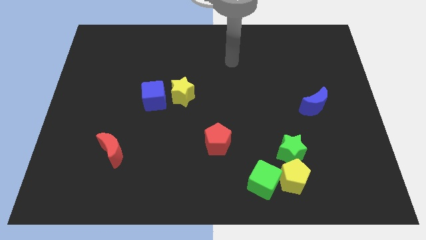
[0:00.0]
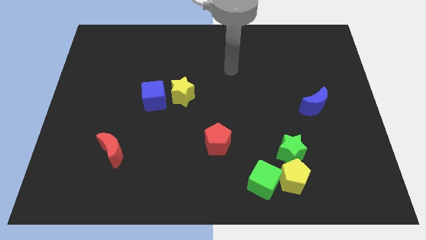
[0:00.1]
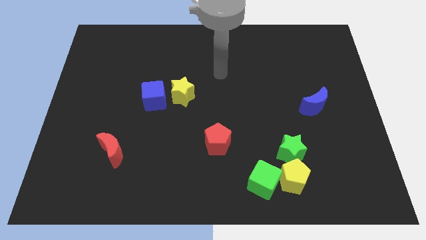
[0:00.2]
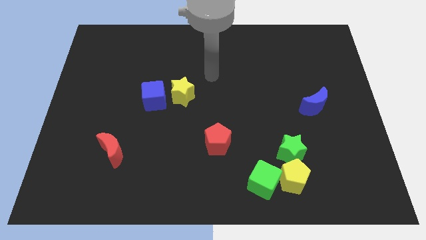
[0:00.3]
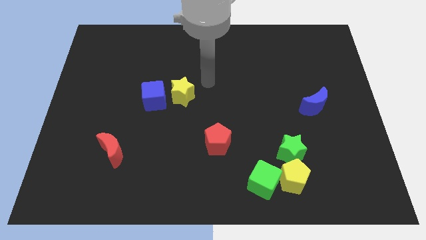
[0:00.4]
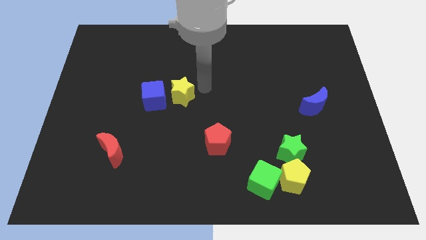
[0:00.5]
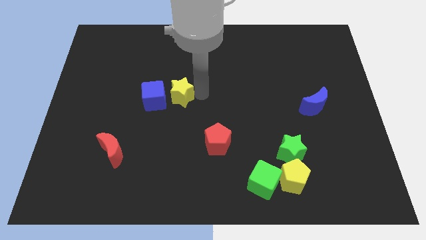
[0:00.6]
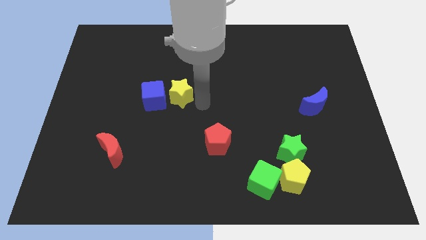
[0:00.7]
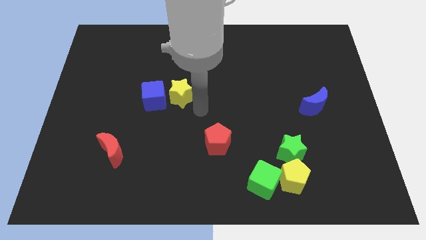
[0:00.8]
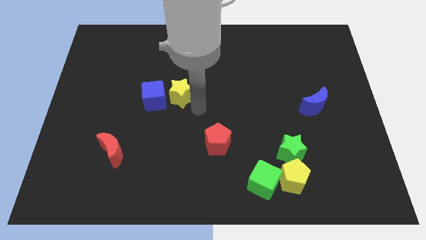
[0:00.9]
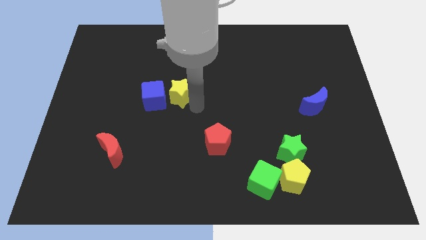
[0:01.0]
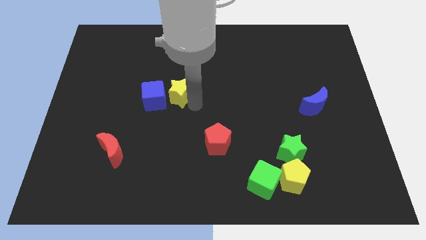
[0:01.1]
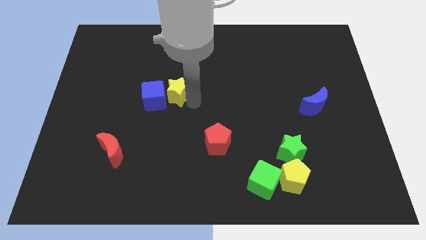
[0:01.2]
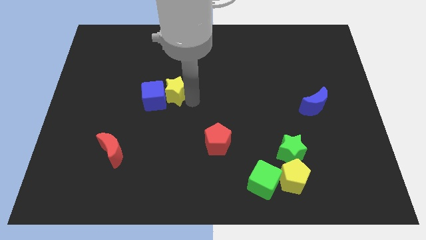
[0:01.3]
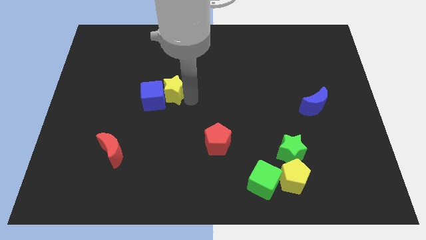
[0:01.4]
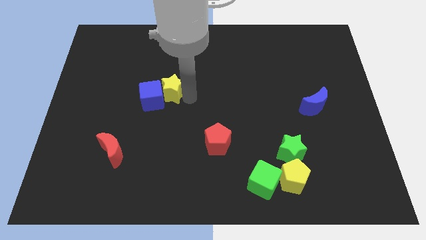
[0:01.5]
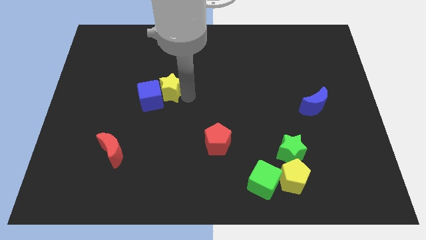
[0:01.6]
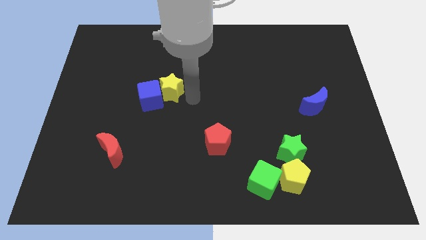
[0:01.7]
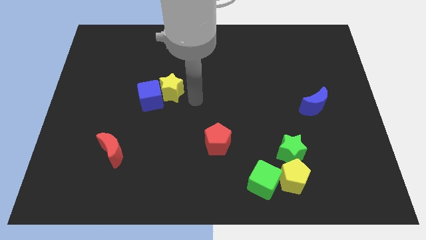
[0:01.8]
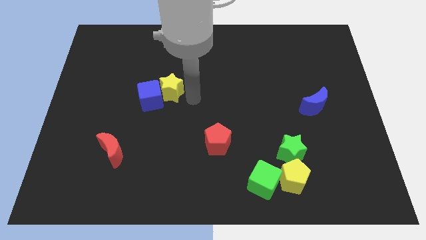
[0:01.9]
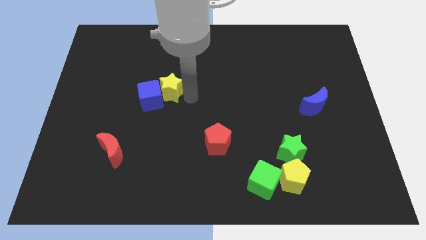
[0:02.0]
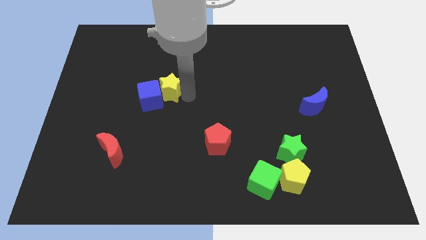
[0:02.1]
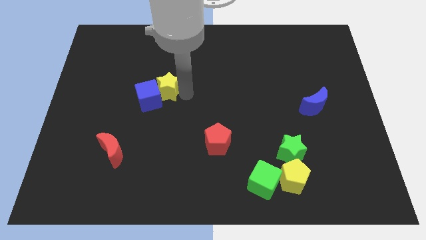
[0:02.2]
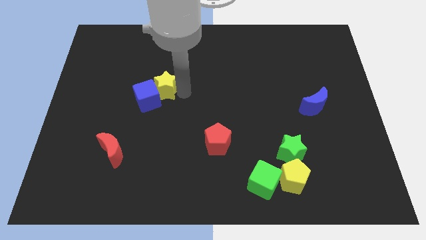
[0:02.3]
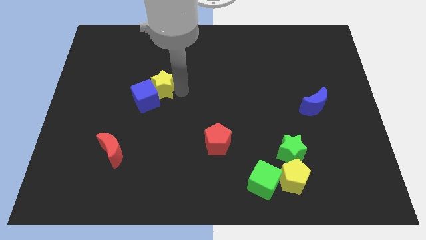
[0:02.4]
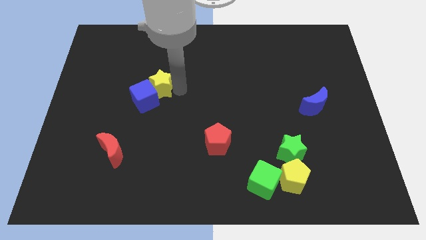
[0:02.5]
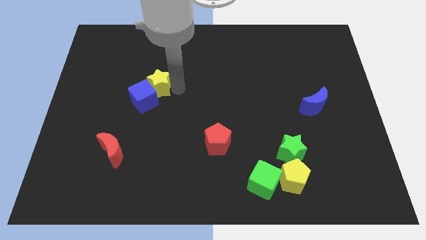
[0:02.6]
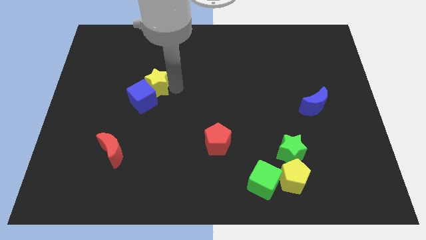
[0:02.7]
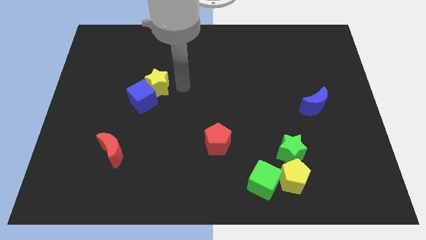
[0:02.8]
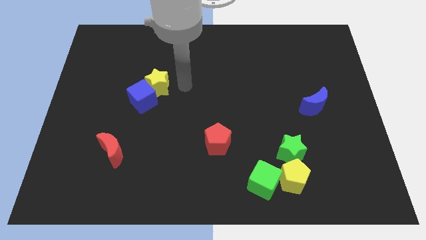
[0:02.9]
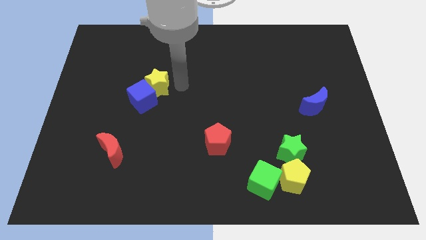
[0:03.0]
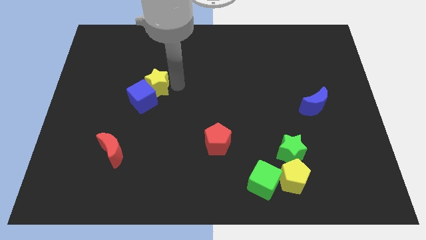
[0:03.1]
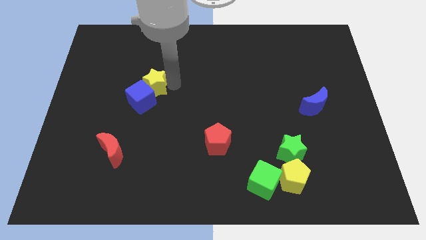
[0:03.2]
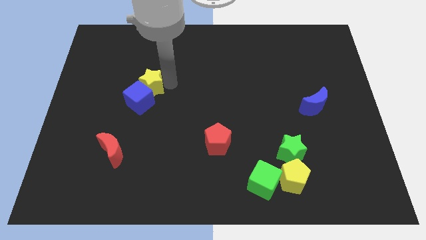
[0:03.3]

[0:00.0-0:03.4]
push the yellow star left a little

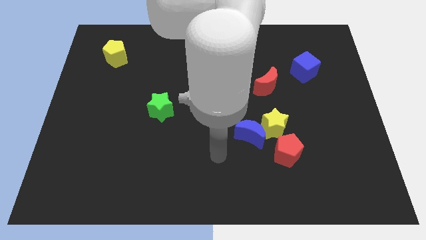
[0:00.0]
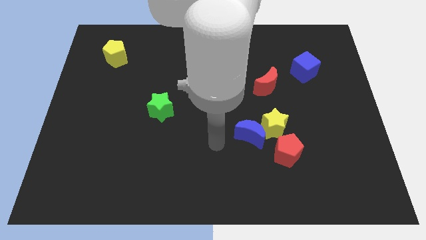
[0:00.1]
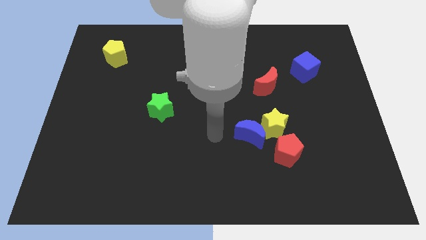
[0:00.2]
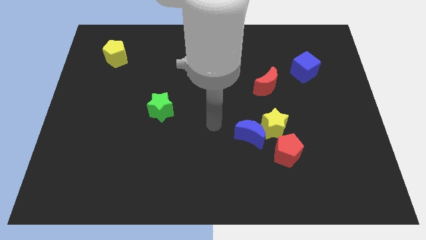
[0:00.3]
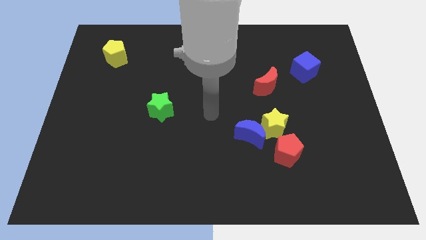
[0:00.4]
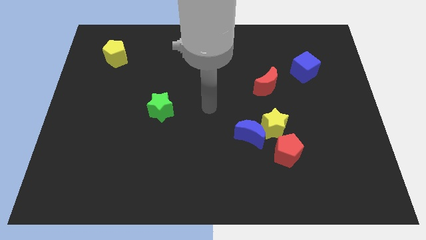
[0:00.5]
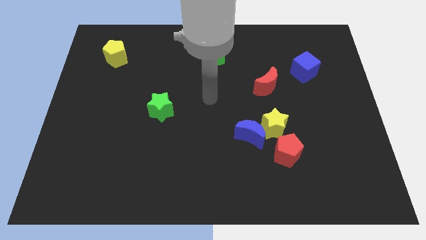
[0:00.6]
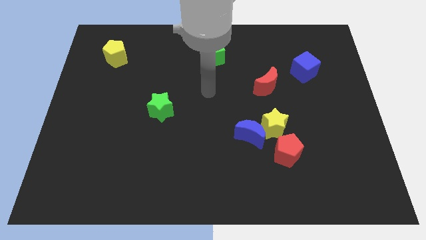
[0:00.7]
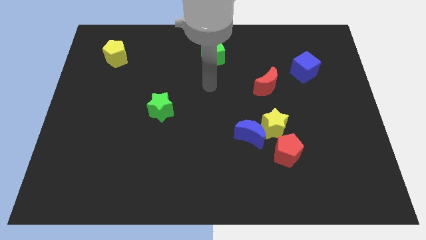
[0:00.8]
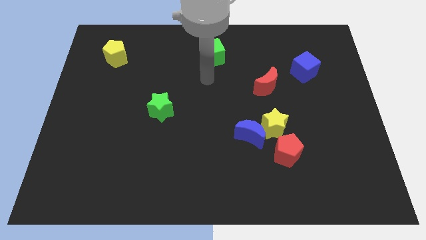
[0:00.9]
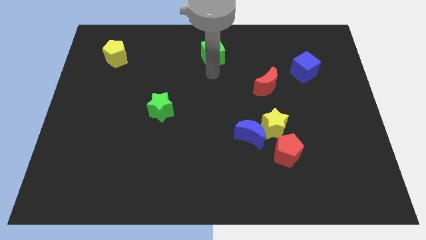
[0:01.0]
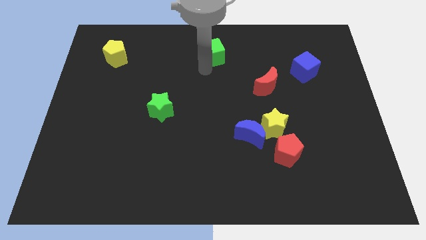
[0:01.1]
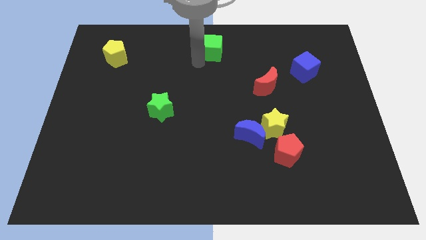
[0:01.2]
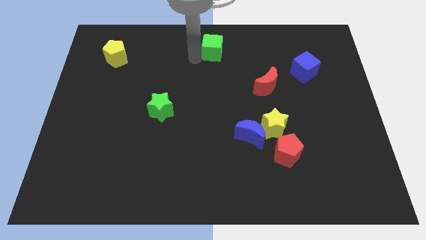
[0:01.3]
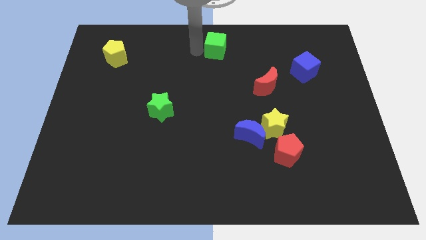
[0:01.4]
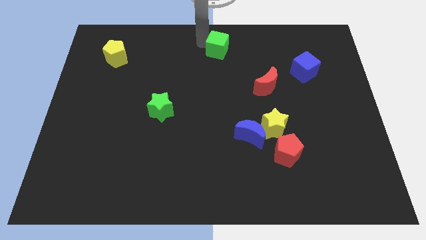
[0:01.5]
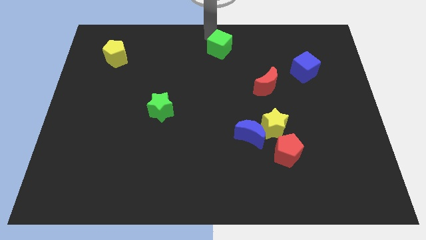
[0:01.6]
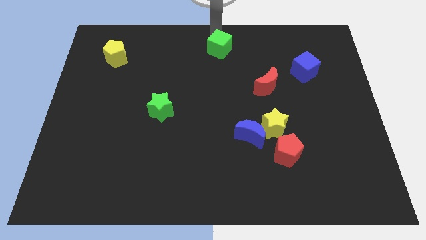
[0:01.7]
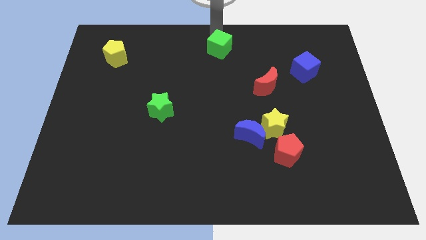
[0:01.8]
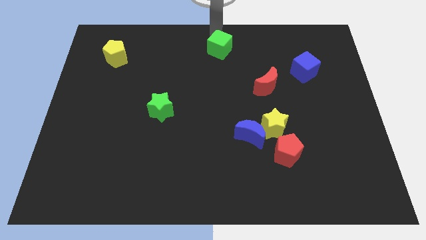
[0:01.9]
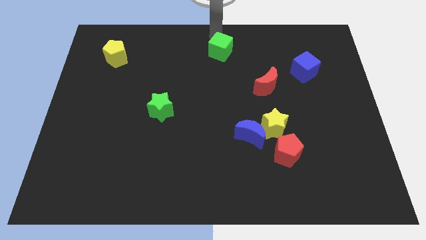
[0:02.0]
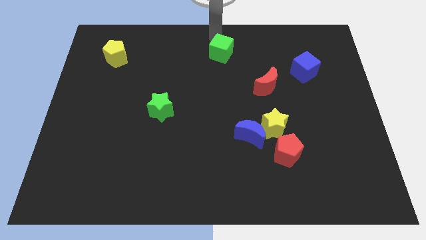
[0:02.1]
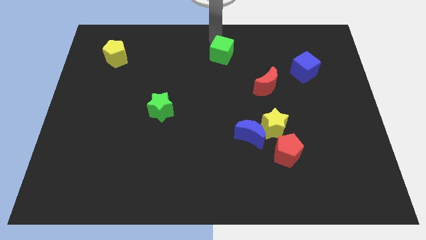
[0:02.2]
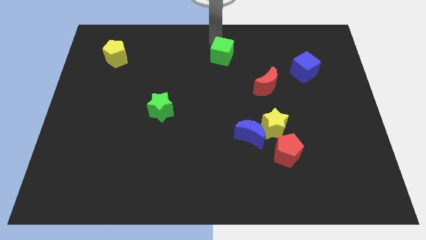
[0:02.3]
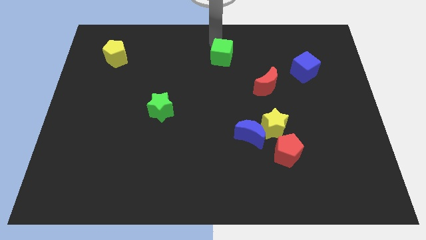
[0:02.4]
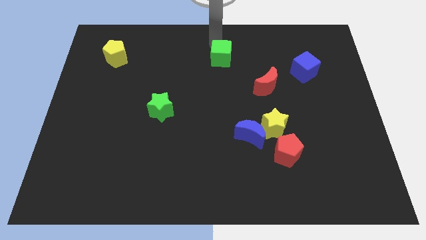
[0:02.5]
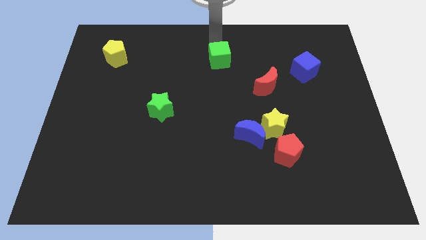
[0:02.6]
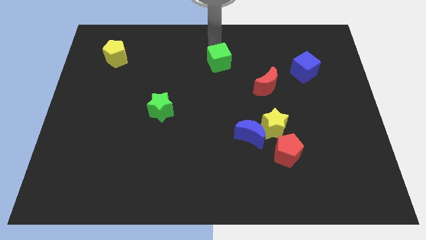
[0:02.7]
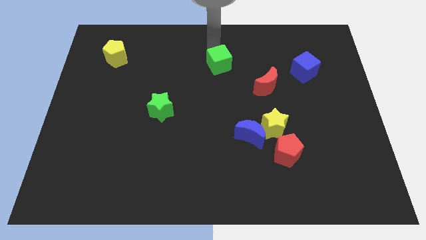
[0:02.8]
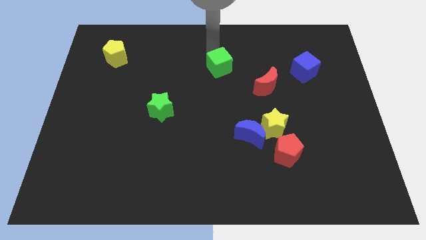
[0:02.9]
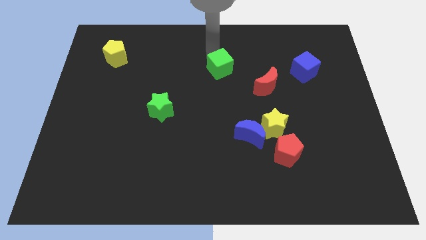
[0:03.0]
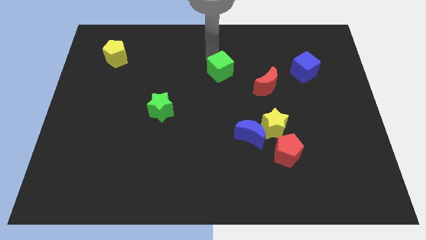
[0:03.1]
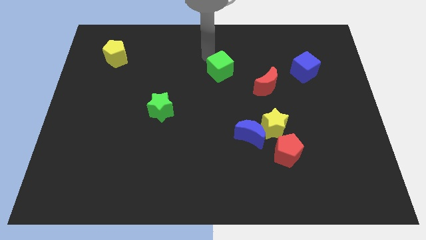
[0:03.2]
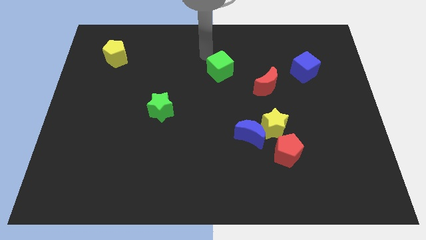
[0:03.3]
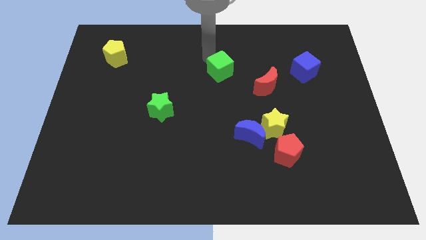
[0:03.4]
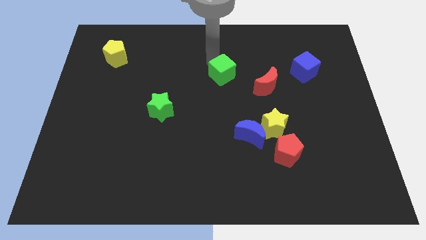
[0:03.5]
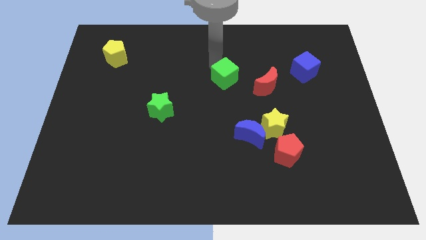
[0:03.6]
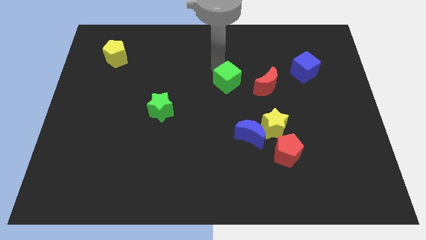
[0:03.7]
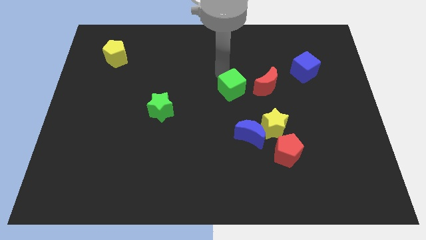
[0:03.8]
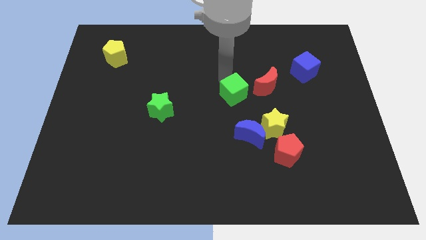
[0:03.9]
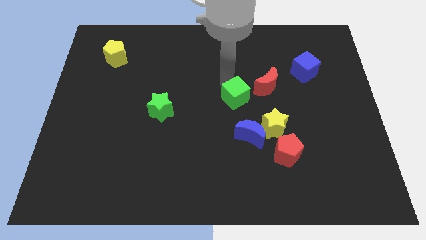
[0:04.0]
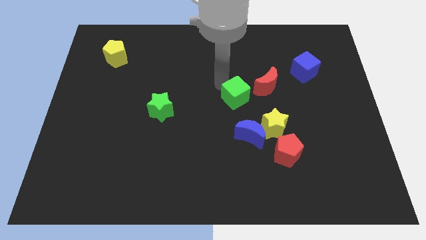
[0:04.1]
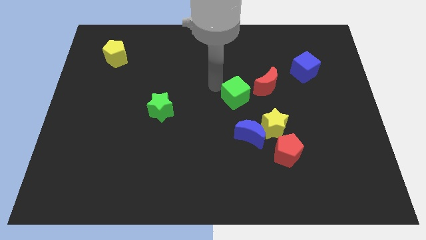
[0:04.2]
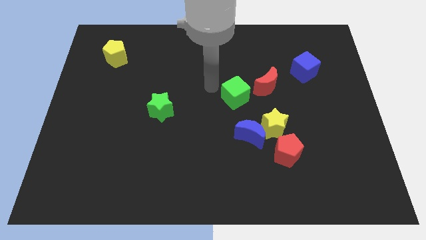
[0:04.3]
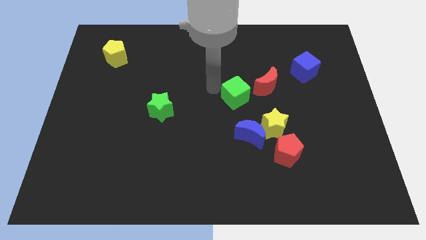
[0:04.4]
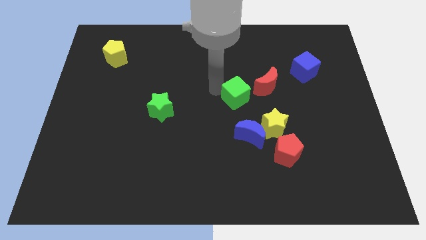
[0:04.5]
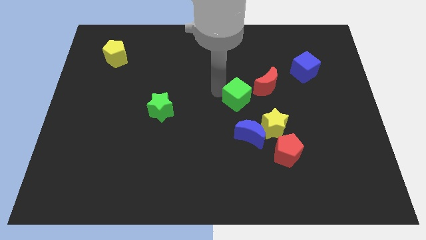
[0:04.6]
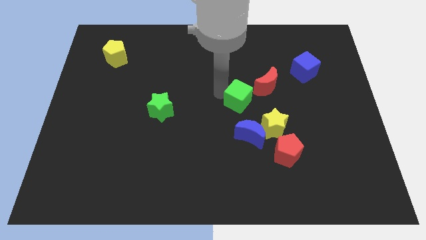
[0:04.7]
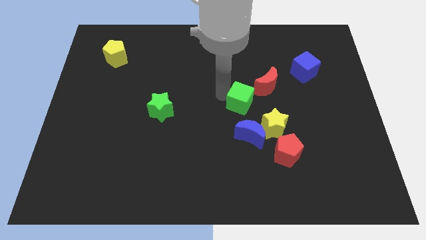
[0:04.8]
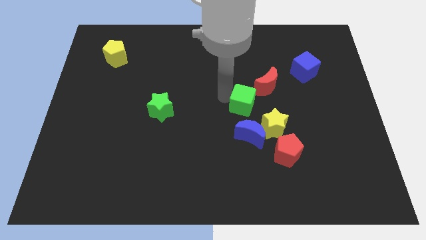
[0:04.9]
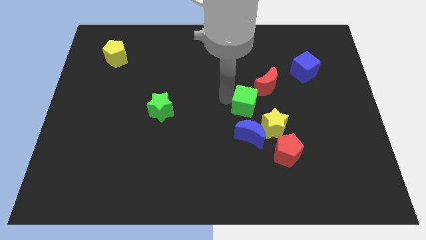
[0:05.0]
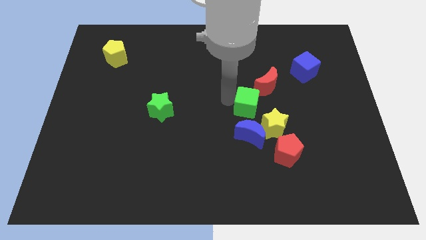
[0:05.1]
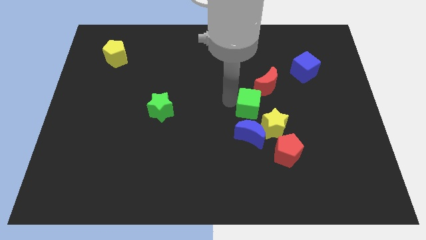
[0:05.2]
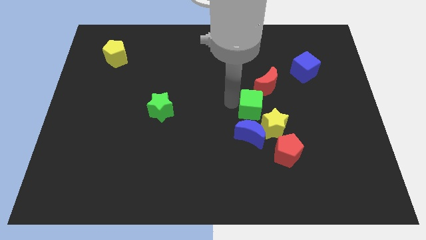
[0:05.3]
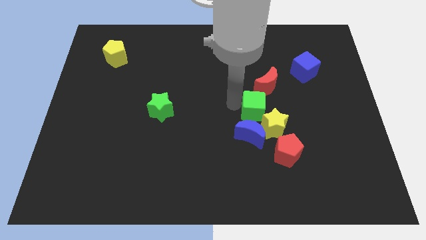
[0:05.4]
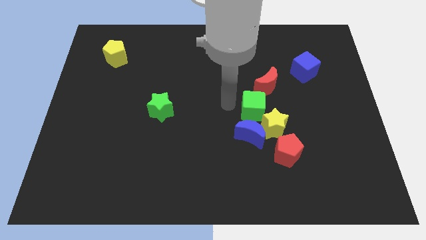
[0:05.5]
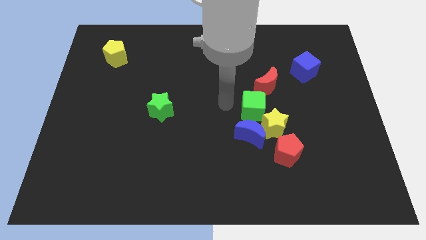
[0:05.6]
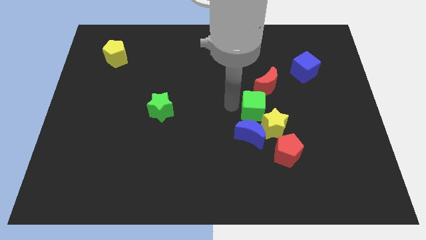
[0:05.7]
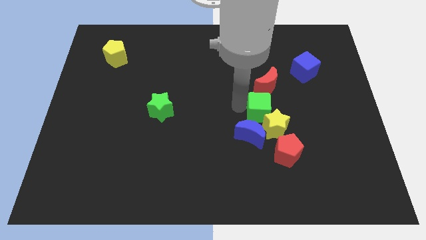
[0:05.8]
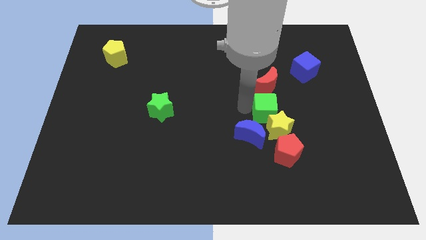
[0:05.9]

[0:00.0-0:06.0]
push the green cube downwards and then right
